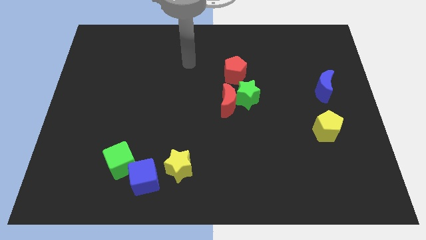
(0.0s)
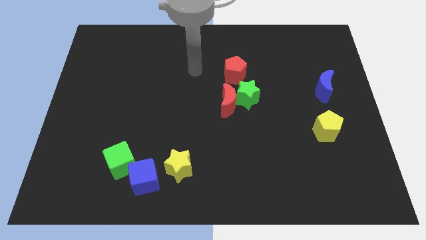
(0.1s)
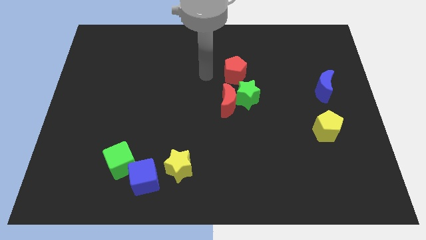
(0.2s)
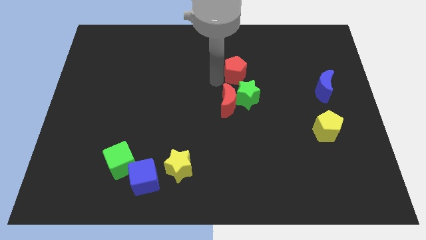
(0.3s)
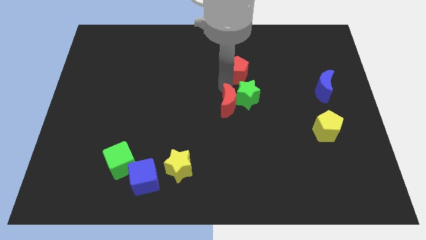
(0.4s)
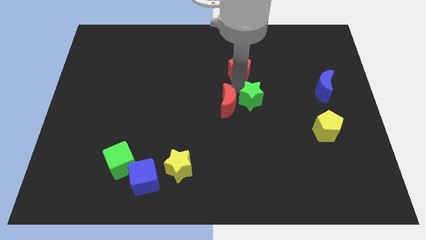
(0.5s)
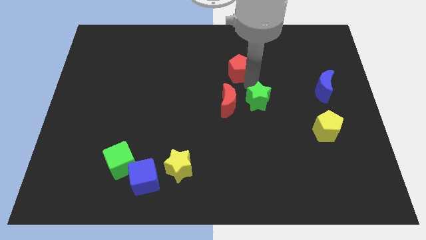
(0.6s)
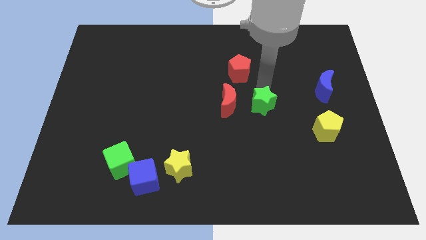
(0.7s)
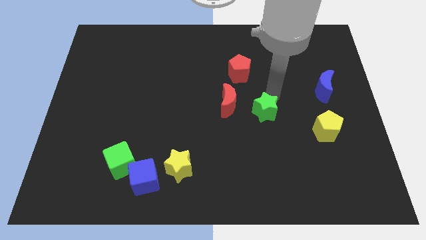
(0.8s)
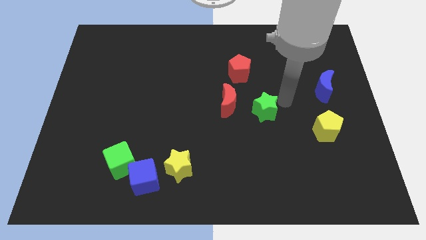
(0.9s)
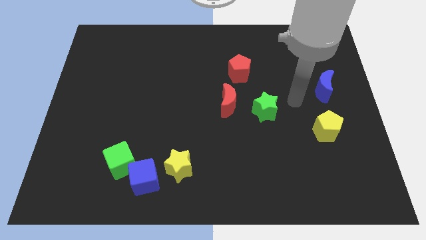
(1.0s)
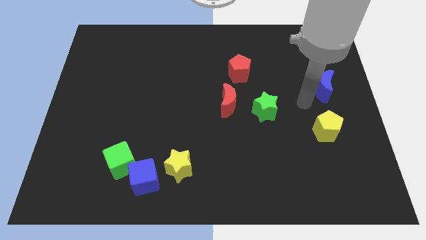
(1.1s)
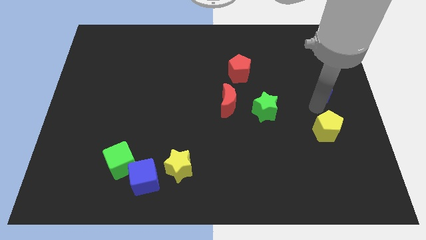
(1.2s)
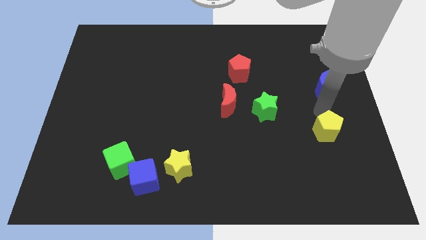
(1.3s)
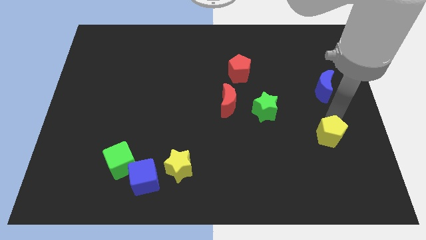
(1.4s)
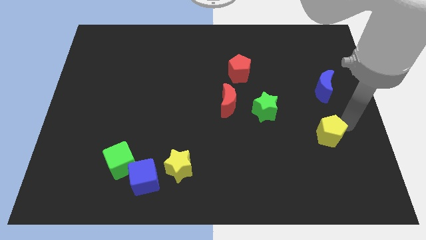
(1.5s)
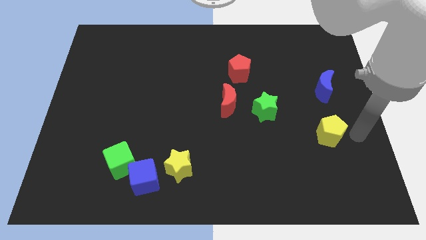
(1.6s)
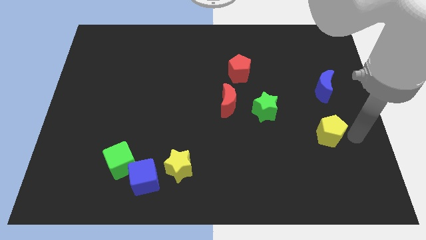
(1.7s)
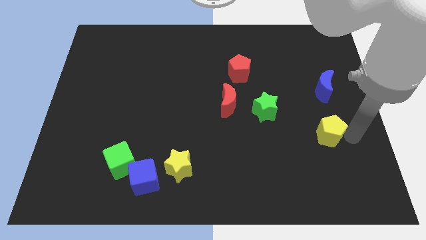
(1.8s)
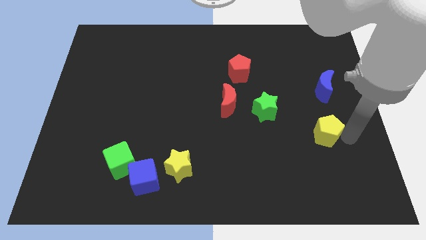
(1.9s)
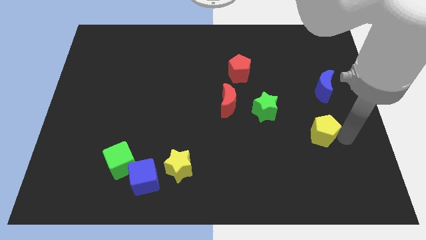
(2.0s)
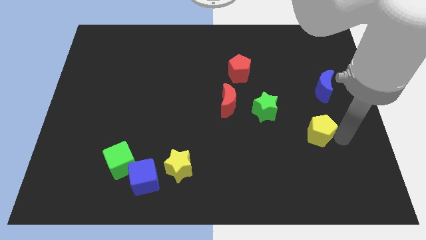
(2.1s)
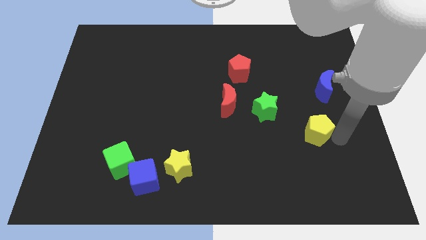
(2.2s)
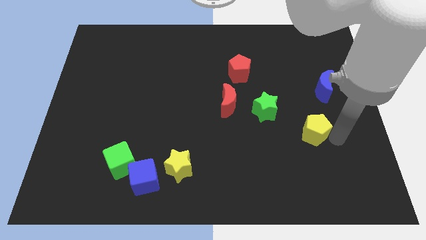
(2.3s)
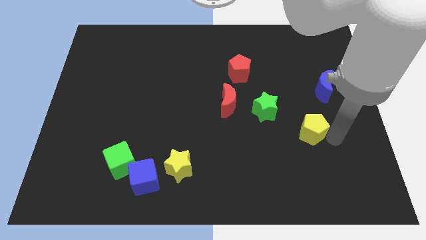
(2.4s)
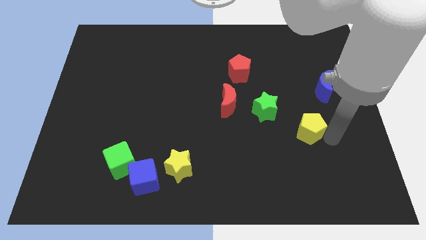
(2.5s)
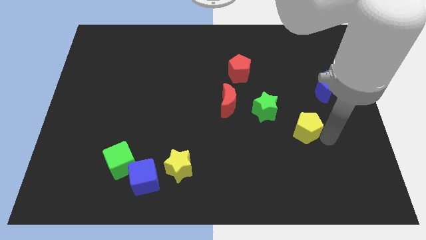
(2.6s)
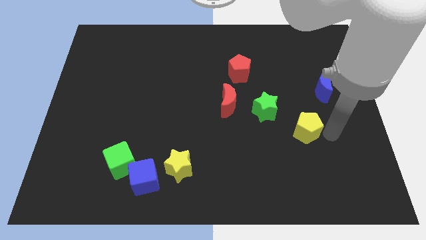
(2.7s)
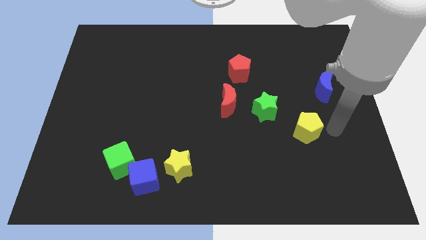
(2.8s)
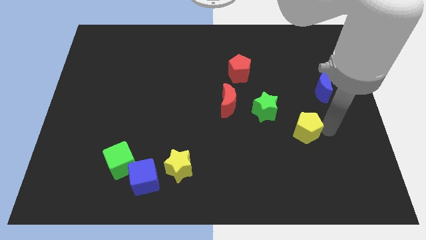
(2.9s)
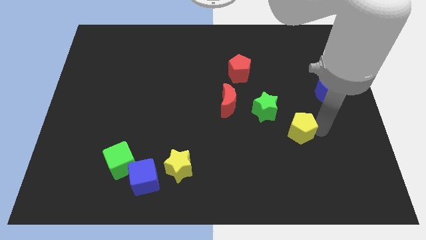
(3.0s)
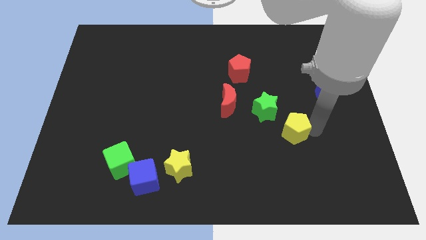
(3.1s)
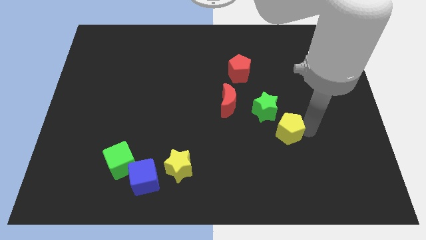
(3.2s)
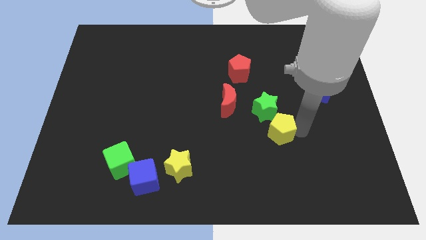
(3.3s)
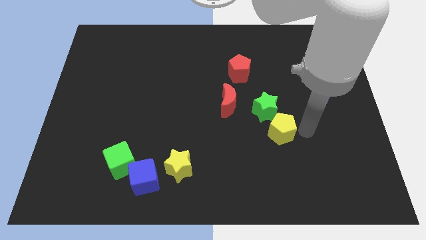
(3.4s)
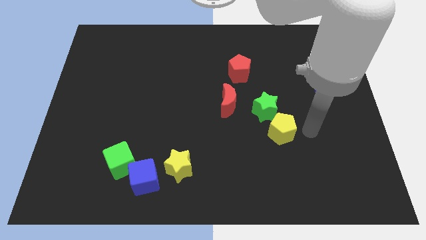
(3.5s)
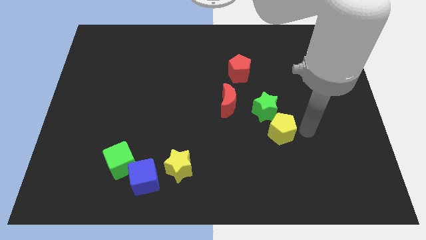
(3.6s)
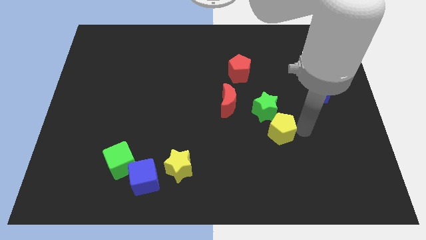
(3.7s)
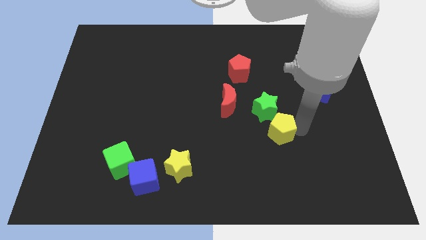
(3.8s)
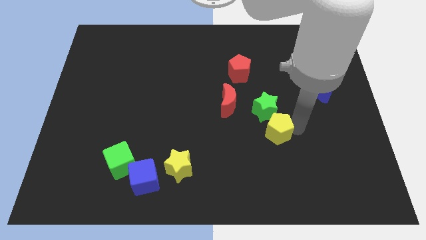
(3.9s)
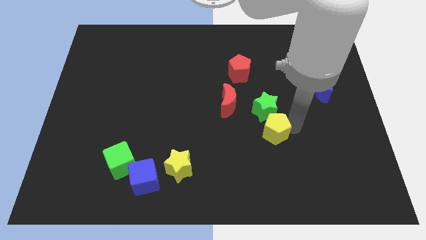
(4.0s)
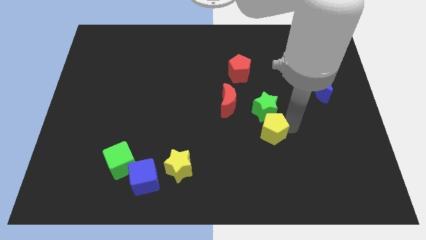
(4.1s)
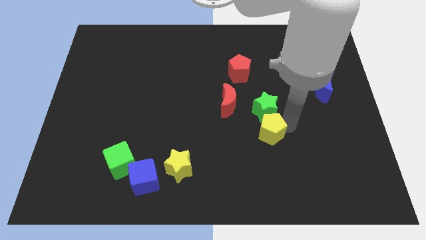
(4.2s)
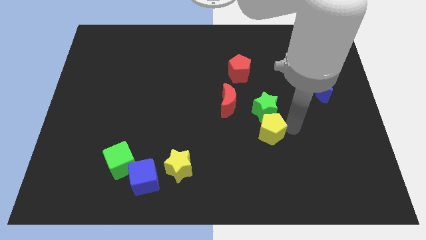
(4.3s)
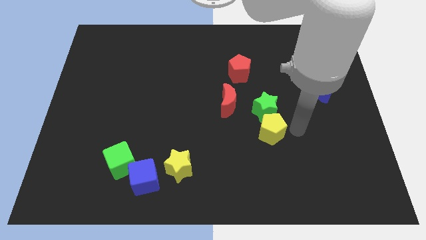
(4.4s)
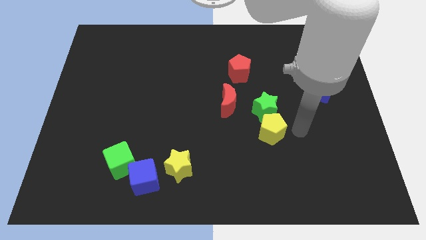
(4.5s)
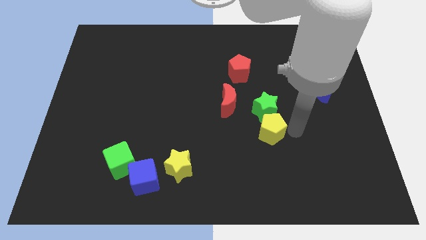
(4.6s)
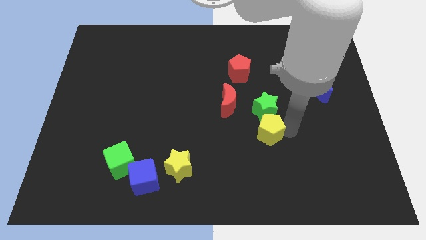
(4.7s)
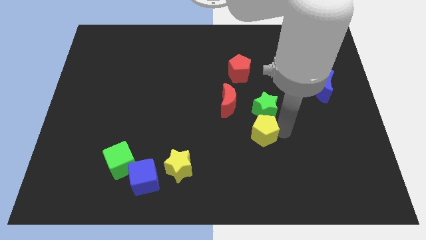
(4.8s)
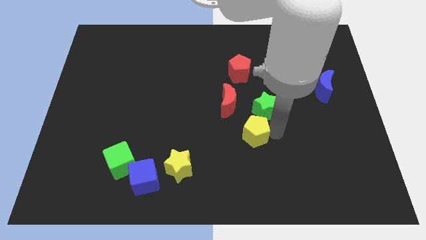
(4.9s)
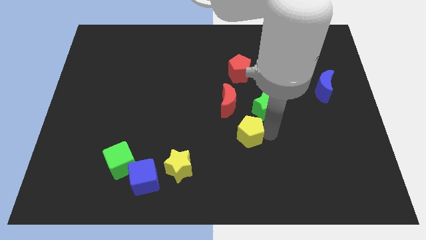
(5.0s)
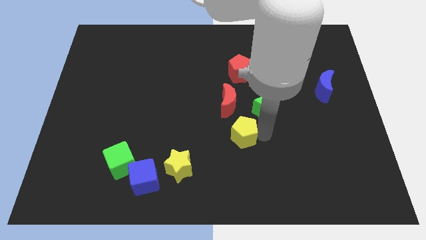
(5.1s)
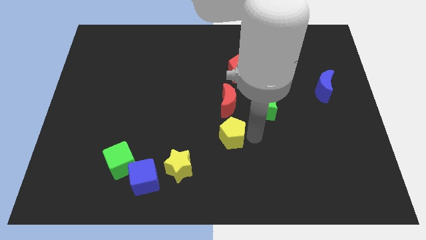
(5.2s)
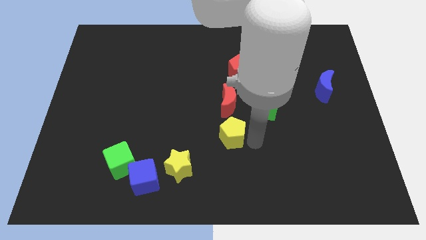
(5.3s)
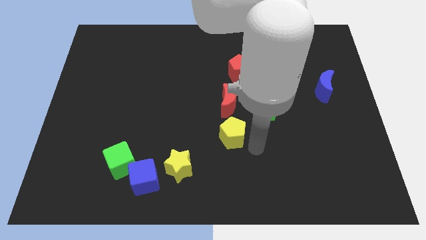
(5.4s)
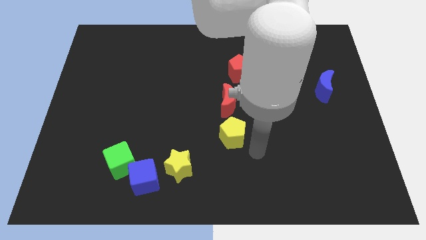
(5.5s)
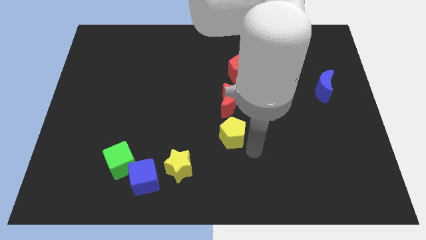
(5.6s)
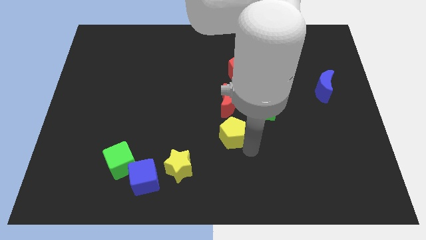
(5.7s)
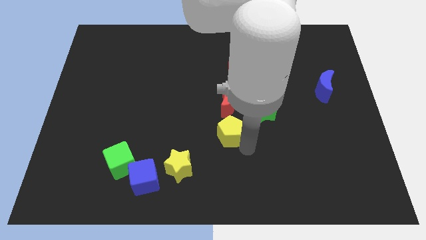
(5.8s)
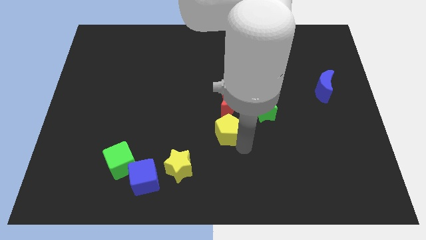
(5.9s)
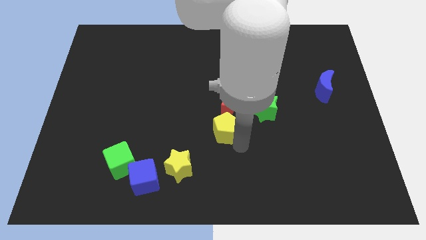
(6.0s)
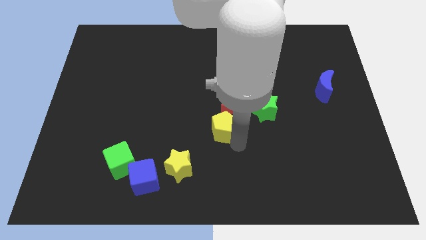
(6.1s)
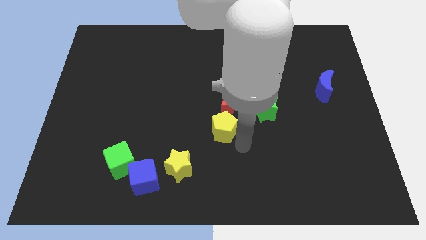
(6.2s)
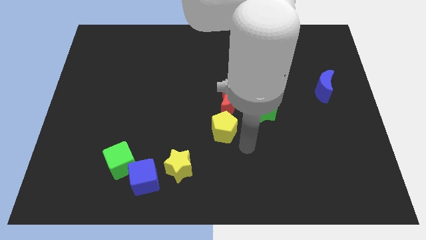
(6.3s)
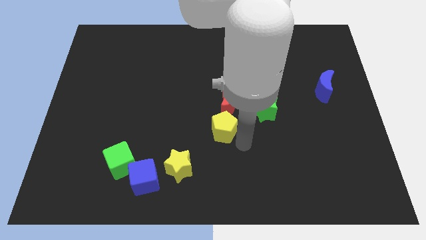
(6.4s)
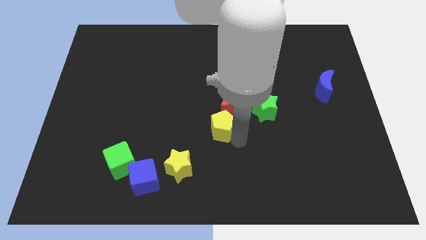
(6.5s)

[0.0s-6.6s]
slide the yellow pentagon just left of the green star
